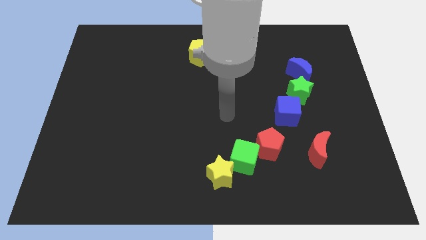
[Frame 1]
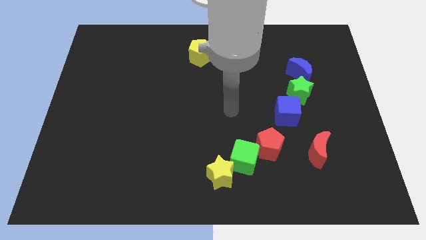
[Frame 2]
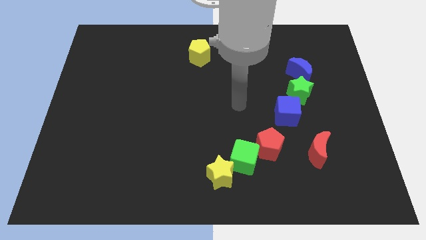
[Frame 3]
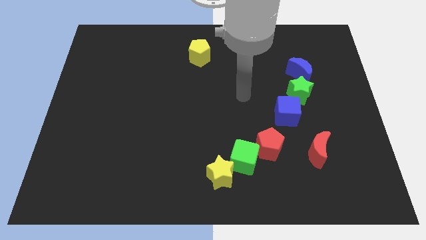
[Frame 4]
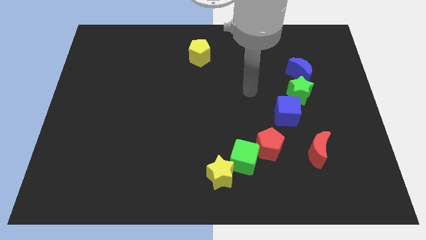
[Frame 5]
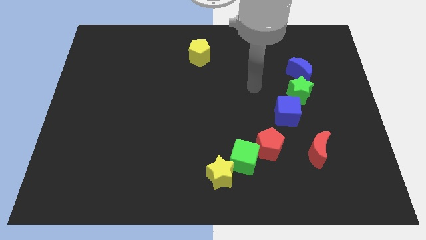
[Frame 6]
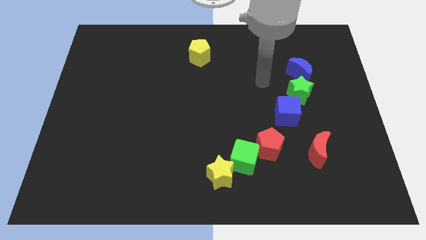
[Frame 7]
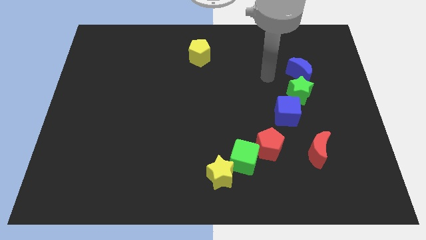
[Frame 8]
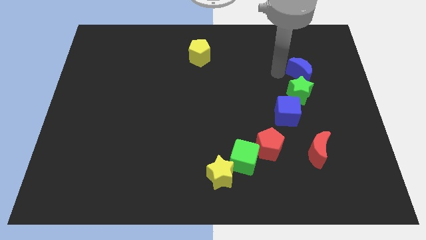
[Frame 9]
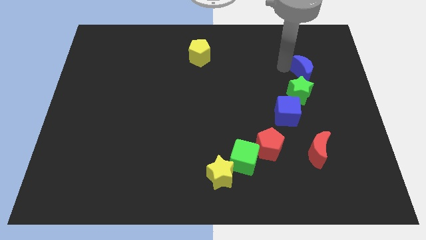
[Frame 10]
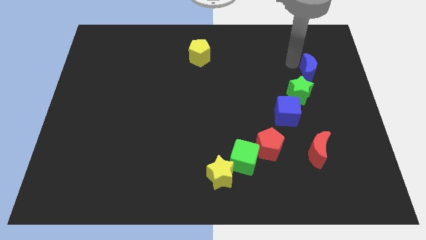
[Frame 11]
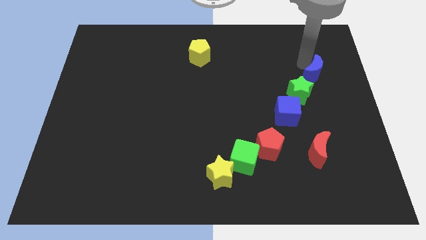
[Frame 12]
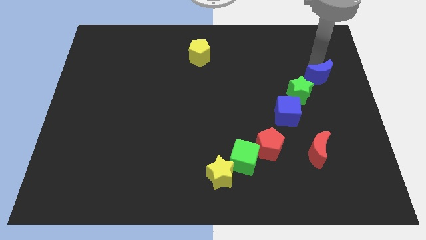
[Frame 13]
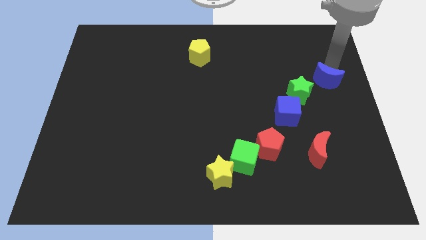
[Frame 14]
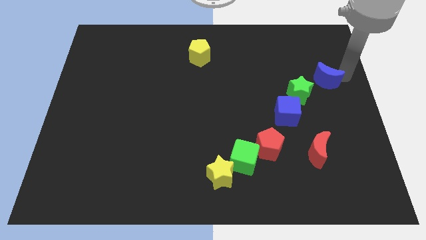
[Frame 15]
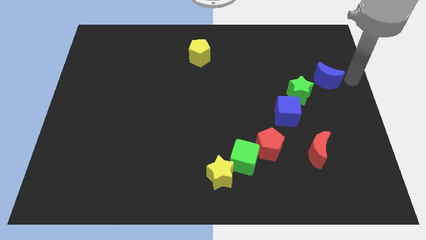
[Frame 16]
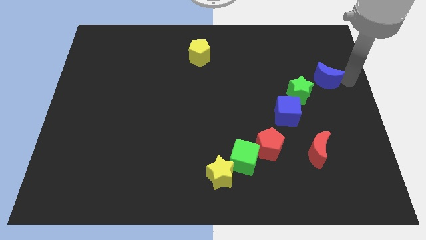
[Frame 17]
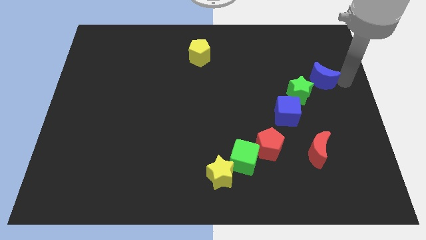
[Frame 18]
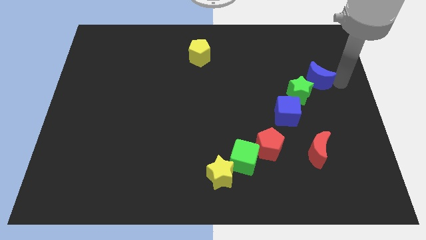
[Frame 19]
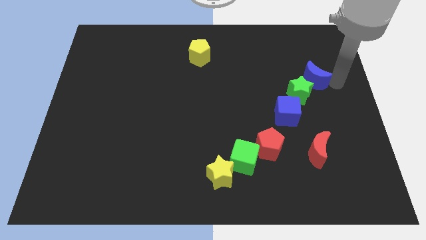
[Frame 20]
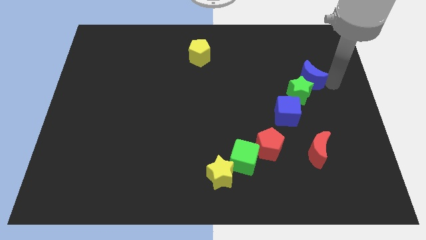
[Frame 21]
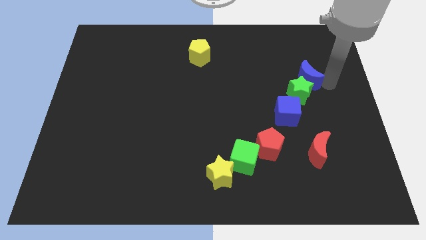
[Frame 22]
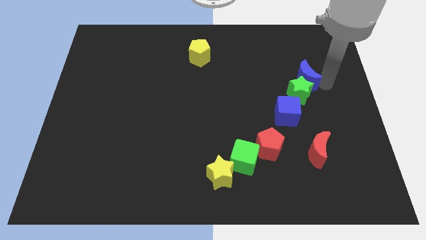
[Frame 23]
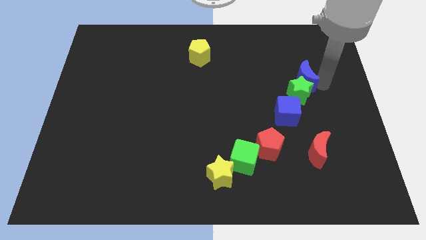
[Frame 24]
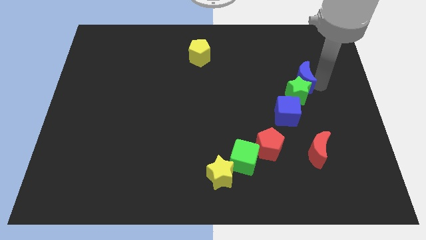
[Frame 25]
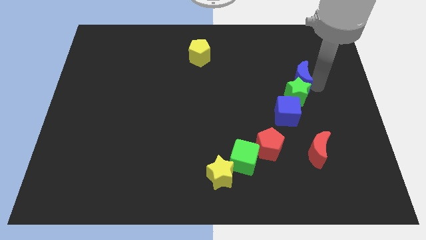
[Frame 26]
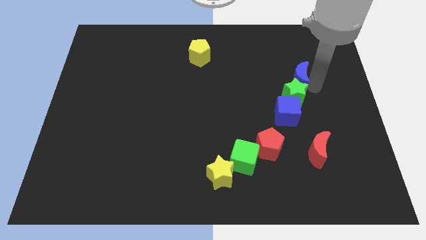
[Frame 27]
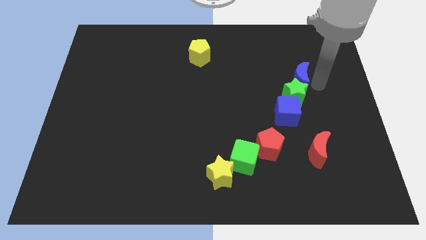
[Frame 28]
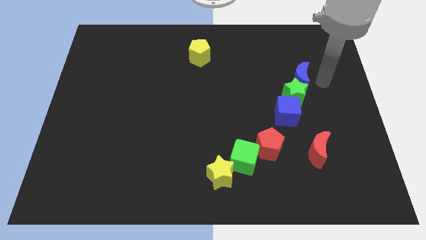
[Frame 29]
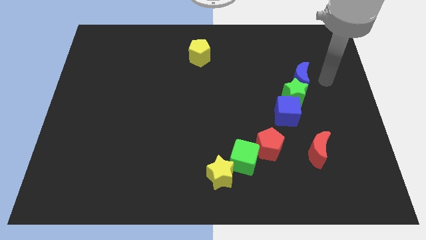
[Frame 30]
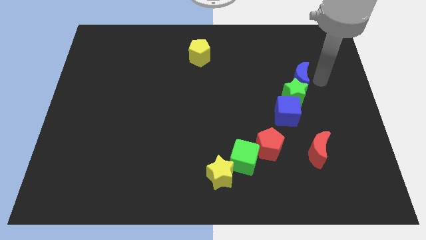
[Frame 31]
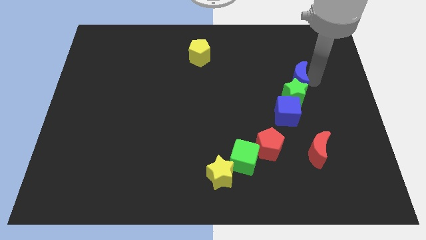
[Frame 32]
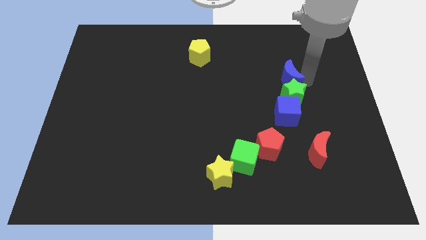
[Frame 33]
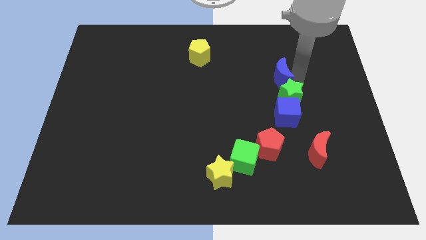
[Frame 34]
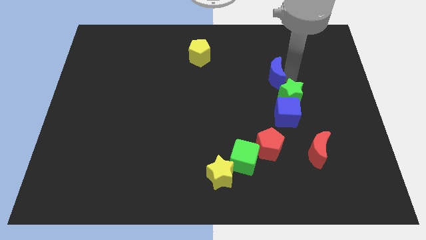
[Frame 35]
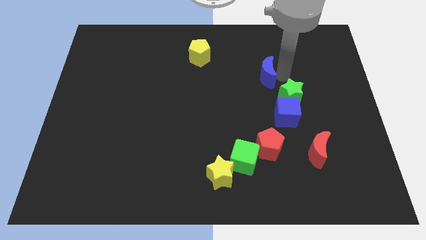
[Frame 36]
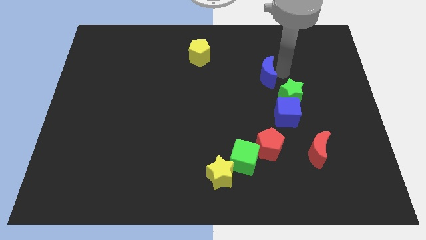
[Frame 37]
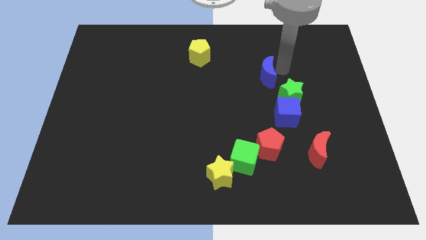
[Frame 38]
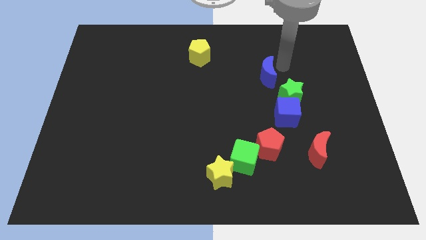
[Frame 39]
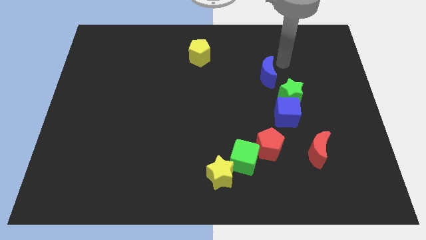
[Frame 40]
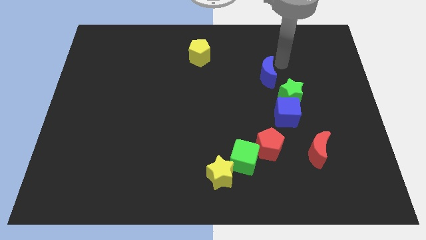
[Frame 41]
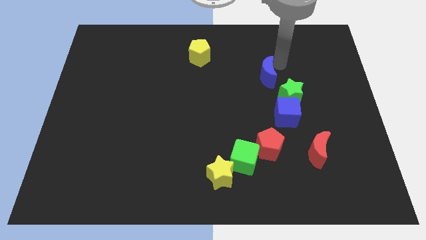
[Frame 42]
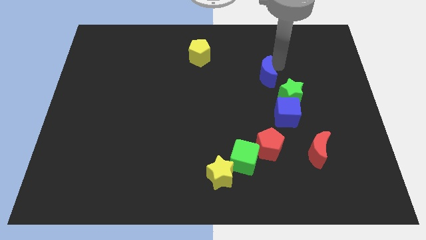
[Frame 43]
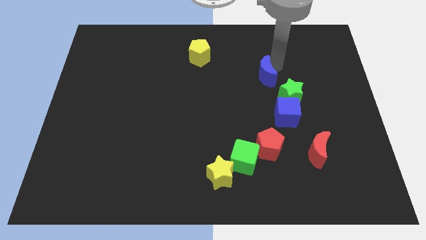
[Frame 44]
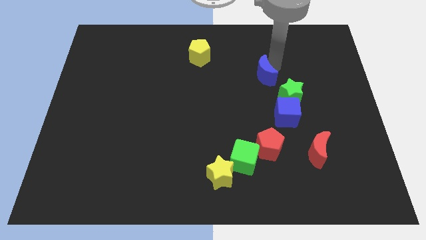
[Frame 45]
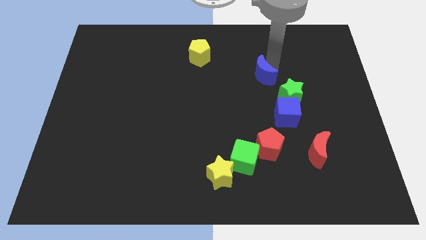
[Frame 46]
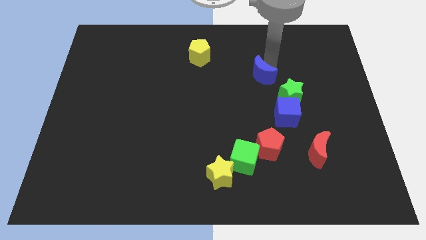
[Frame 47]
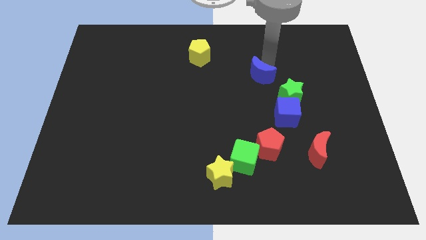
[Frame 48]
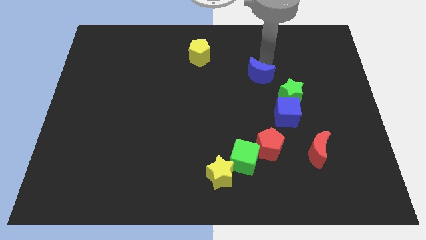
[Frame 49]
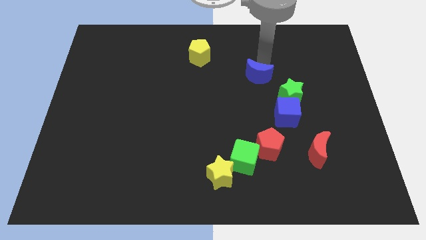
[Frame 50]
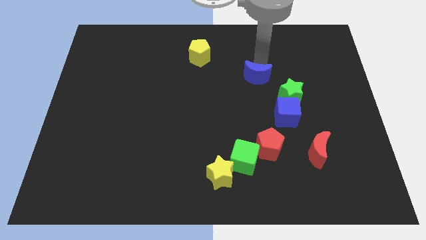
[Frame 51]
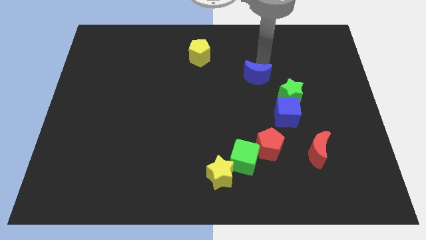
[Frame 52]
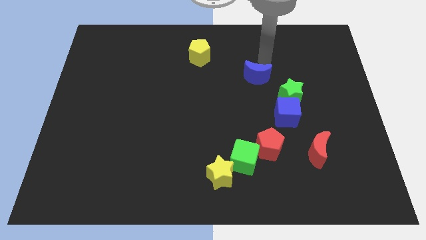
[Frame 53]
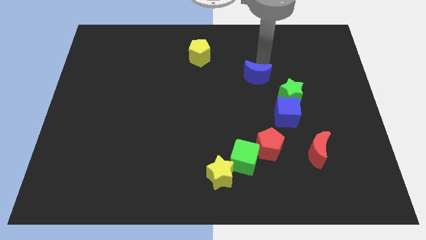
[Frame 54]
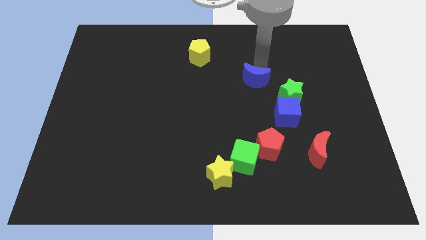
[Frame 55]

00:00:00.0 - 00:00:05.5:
slide the blue moon somewhat down and then to the left

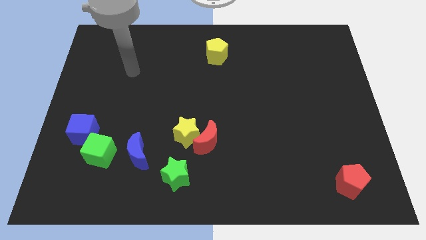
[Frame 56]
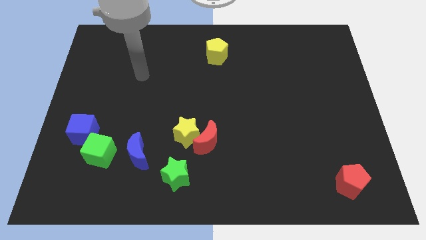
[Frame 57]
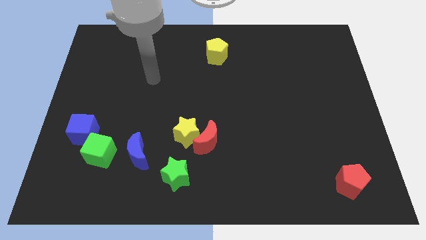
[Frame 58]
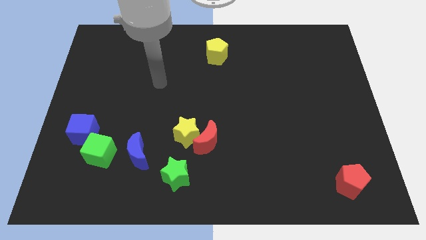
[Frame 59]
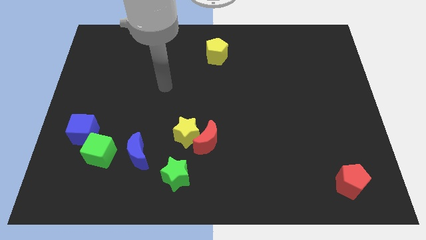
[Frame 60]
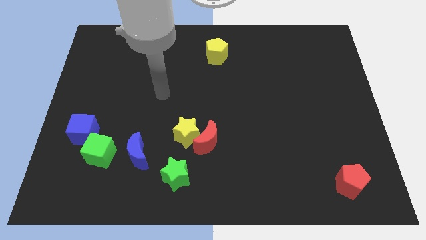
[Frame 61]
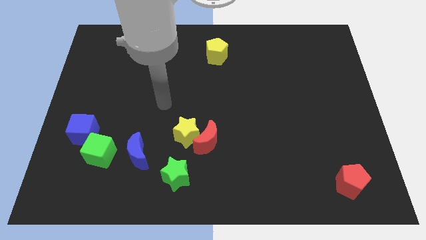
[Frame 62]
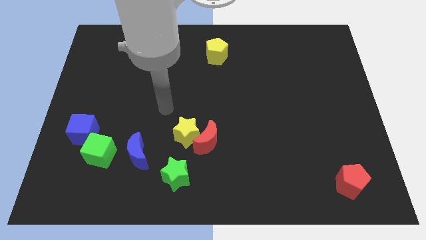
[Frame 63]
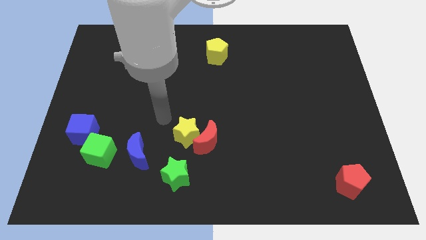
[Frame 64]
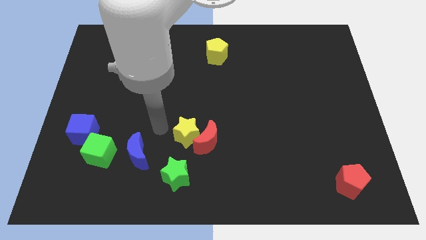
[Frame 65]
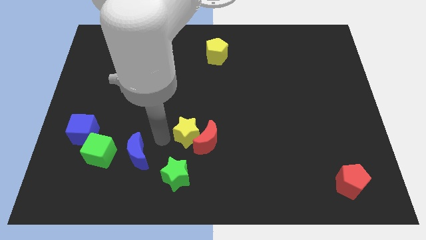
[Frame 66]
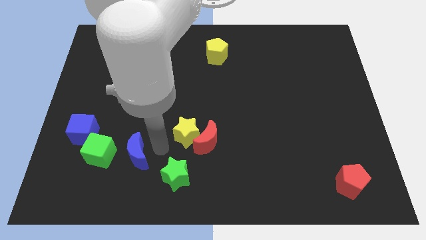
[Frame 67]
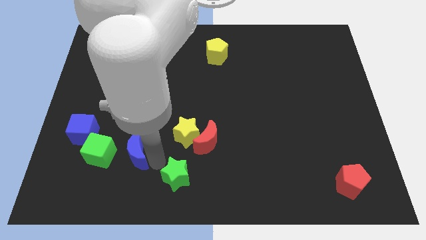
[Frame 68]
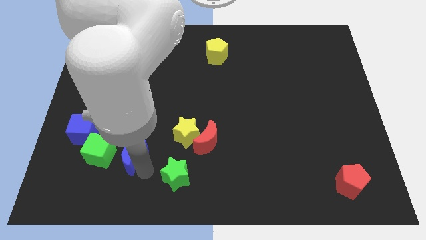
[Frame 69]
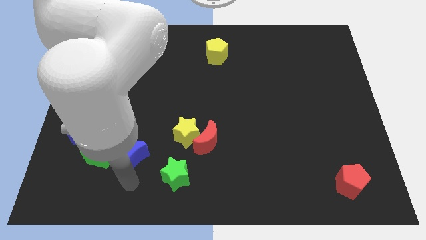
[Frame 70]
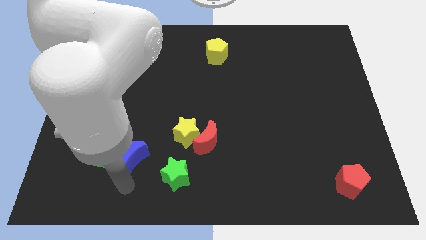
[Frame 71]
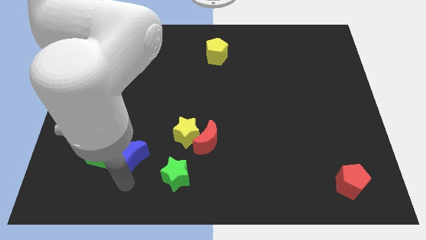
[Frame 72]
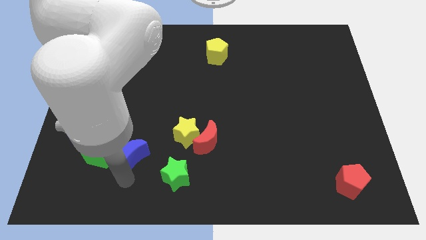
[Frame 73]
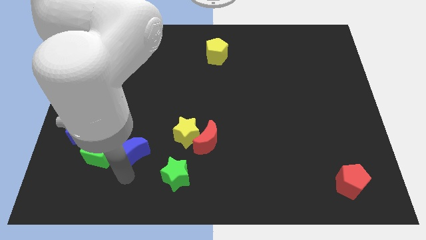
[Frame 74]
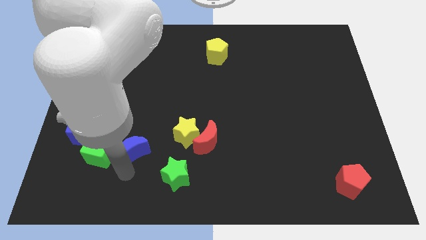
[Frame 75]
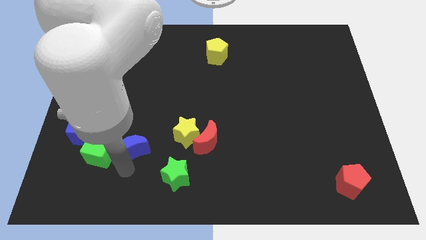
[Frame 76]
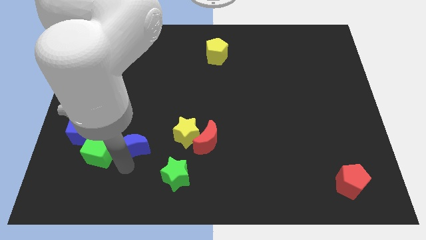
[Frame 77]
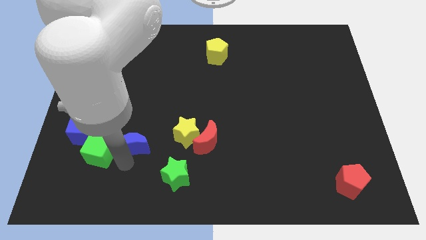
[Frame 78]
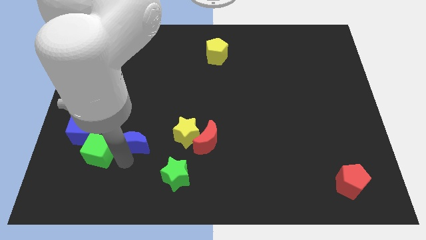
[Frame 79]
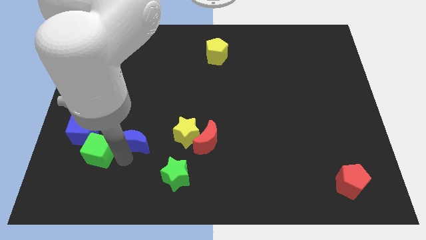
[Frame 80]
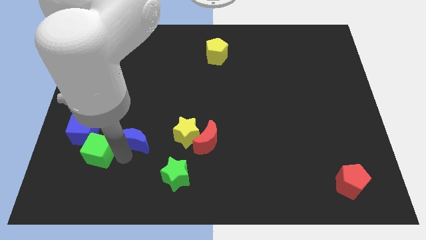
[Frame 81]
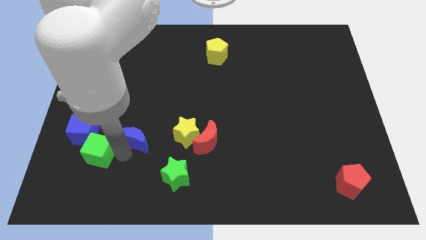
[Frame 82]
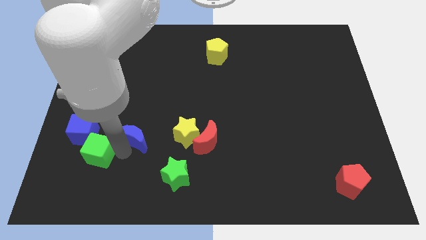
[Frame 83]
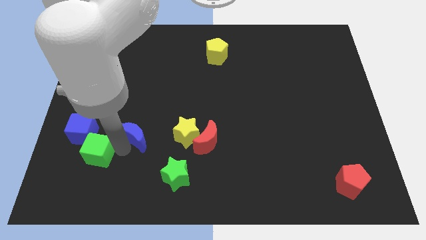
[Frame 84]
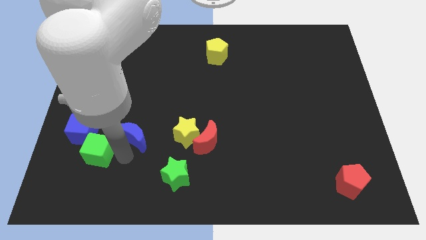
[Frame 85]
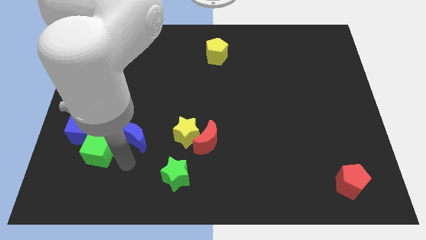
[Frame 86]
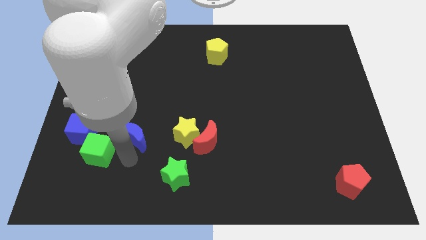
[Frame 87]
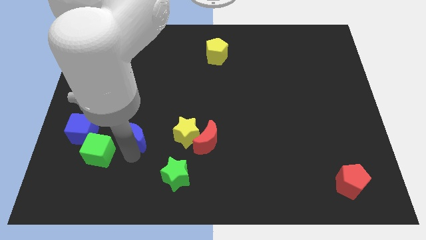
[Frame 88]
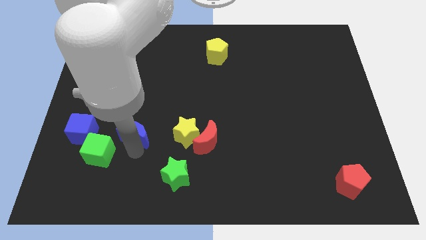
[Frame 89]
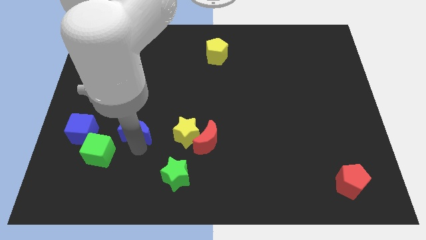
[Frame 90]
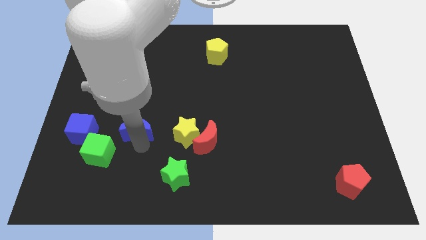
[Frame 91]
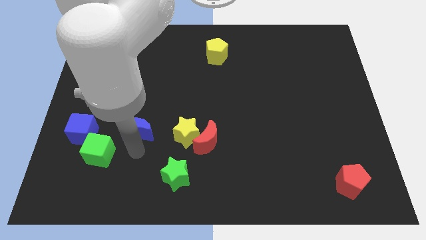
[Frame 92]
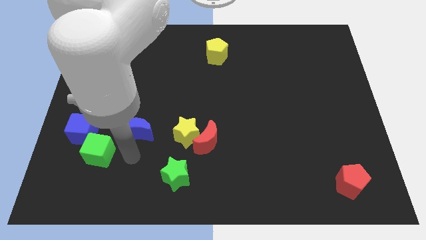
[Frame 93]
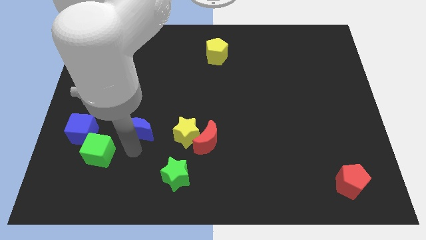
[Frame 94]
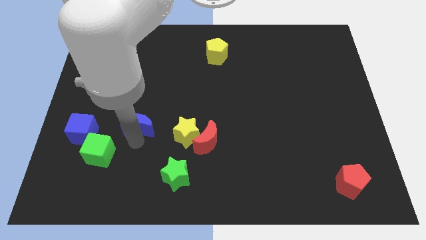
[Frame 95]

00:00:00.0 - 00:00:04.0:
slide the blue moon upwards somewhat
